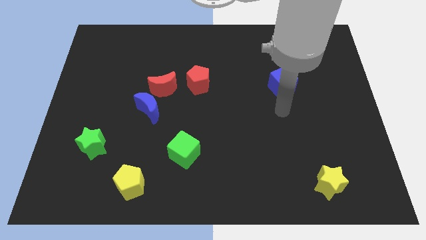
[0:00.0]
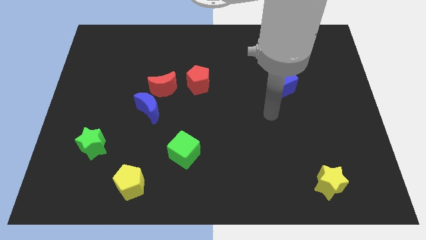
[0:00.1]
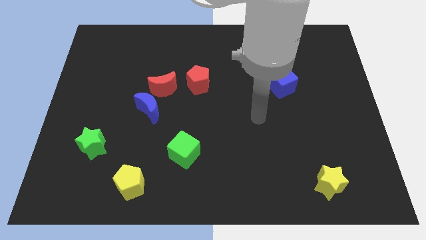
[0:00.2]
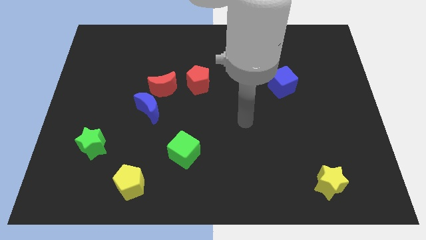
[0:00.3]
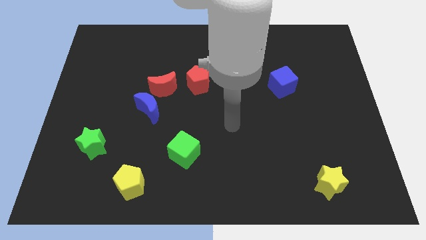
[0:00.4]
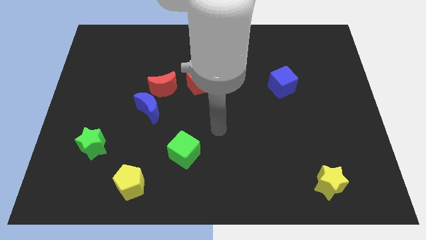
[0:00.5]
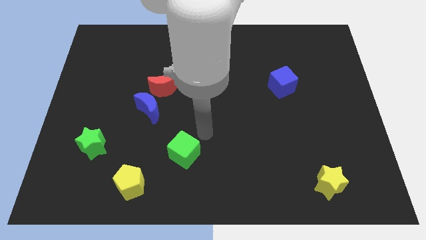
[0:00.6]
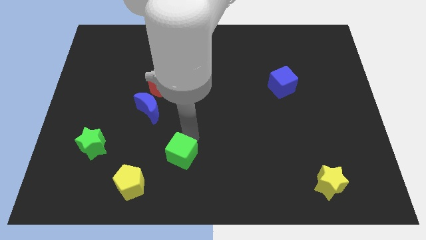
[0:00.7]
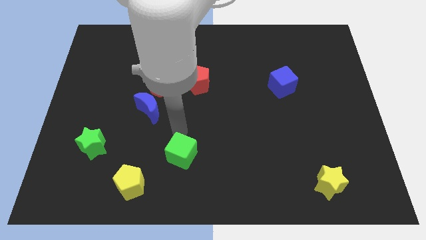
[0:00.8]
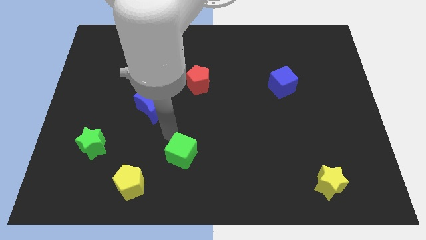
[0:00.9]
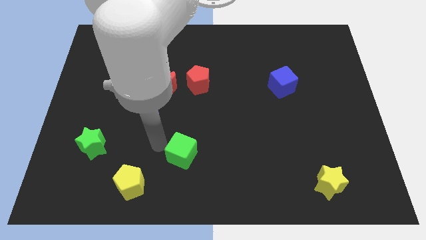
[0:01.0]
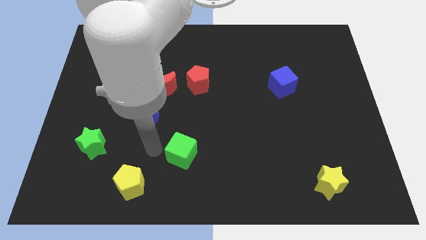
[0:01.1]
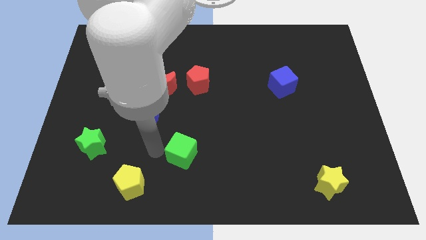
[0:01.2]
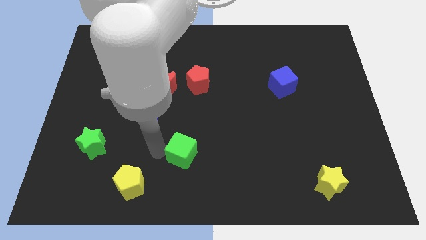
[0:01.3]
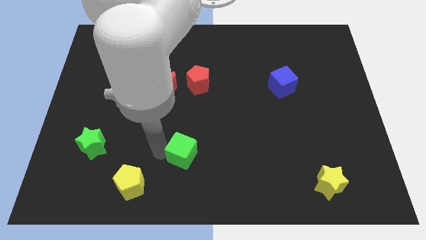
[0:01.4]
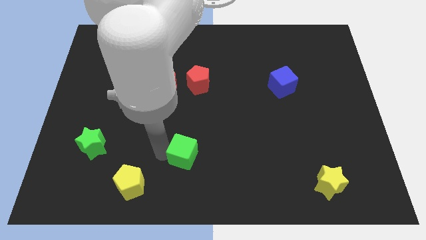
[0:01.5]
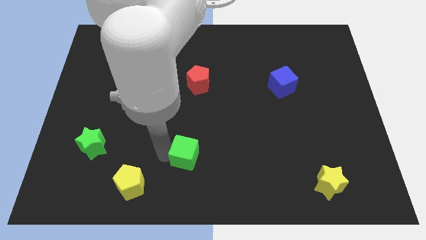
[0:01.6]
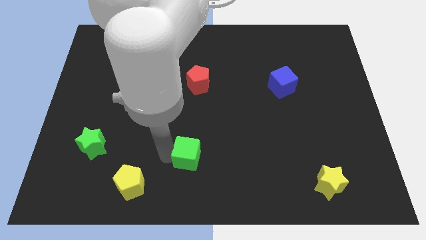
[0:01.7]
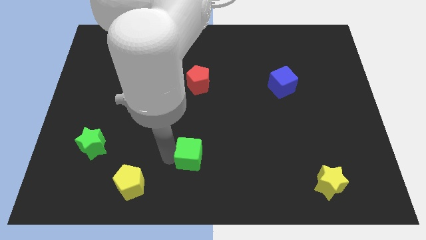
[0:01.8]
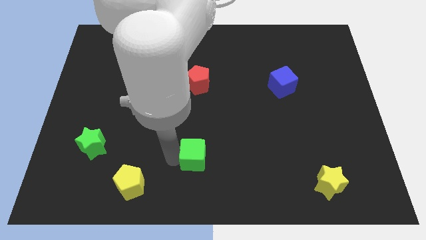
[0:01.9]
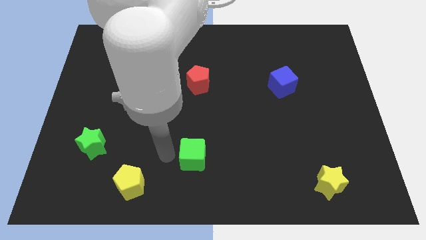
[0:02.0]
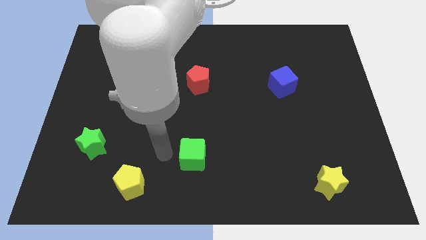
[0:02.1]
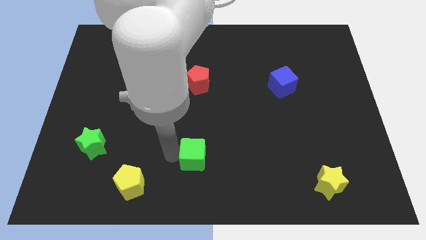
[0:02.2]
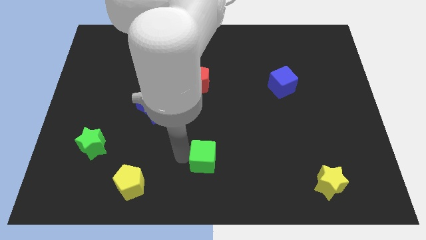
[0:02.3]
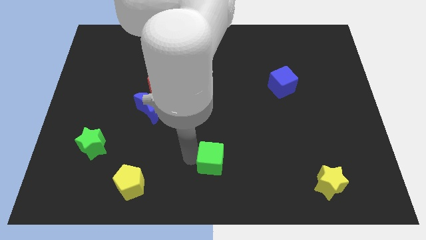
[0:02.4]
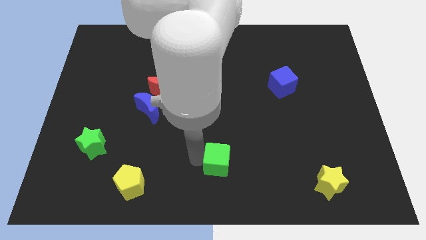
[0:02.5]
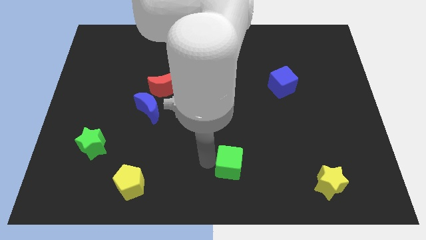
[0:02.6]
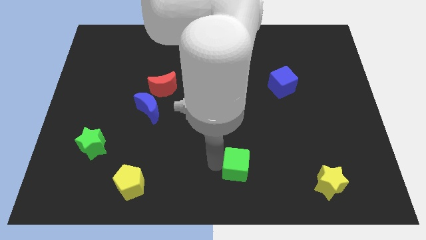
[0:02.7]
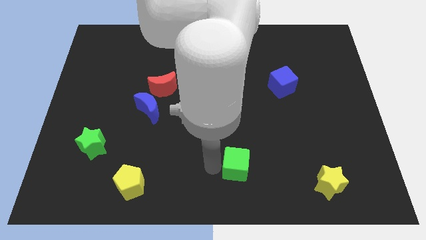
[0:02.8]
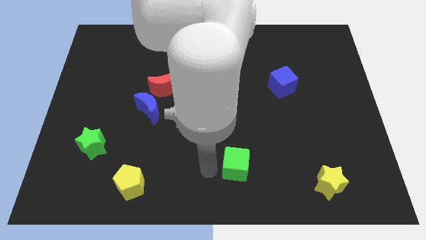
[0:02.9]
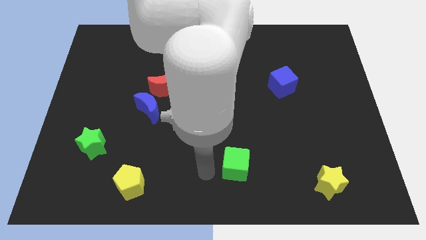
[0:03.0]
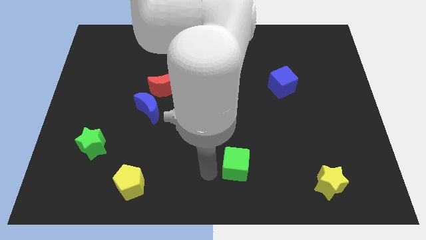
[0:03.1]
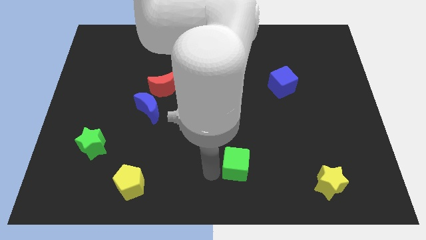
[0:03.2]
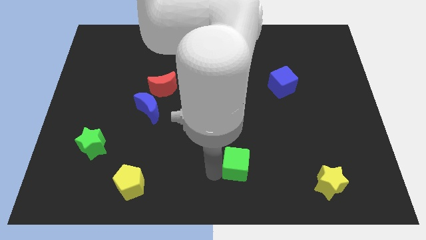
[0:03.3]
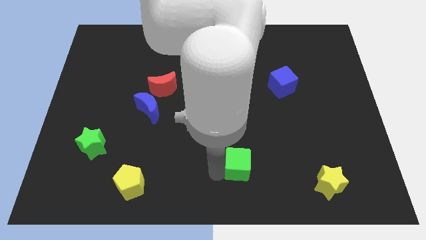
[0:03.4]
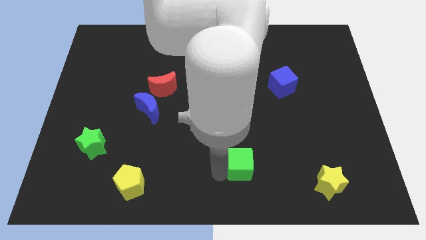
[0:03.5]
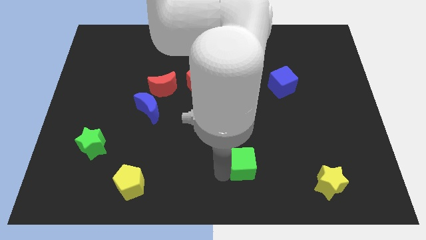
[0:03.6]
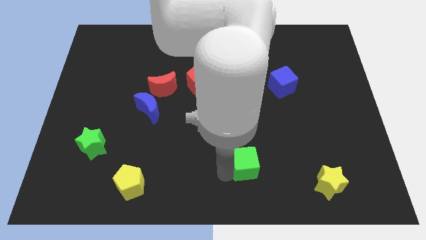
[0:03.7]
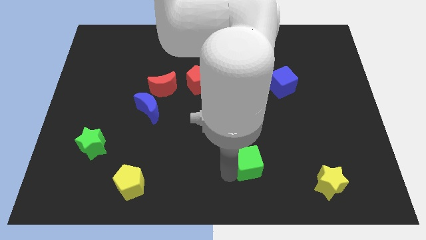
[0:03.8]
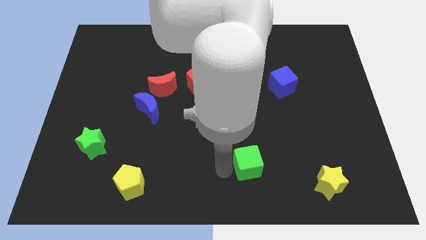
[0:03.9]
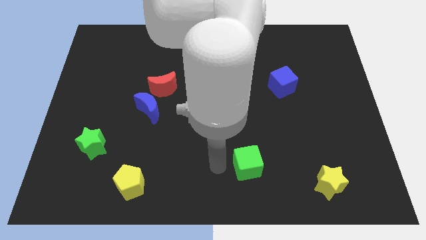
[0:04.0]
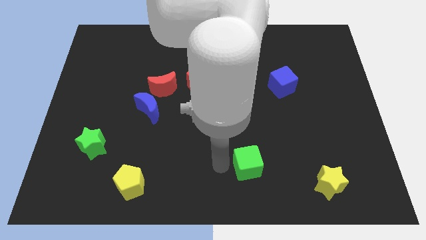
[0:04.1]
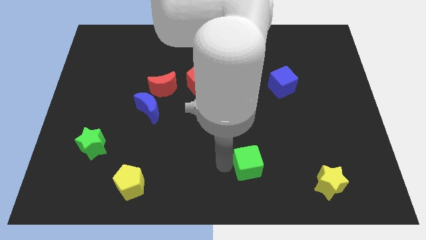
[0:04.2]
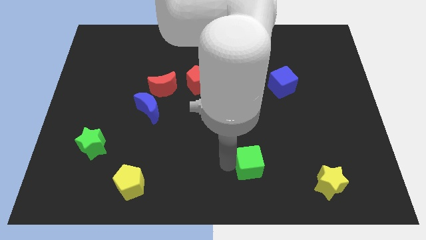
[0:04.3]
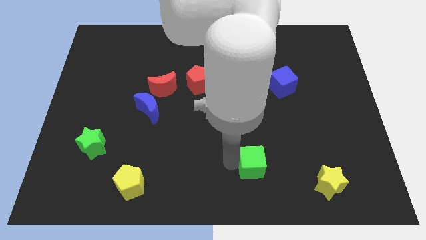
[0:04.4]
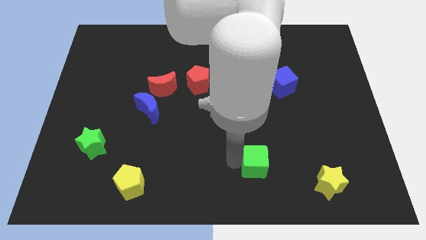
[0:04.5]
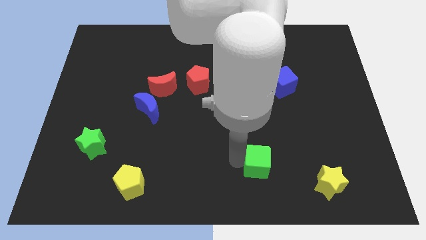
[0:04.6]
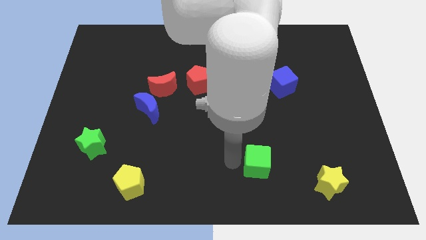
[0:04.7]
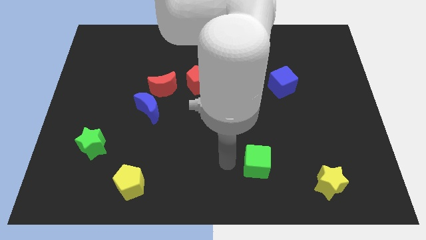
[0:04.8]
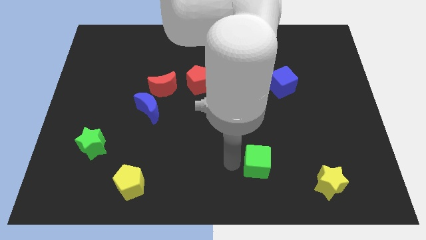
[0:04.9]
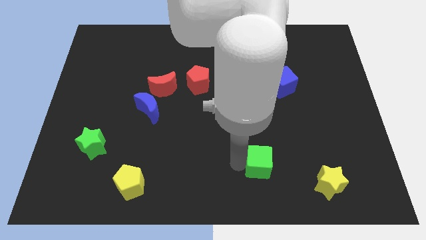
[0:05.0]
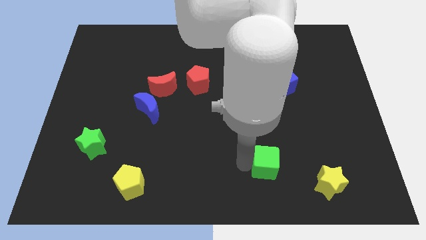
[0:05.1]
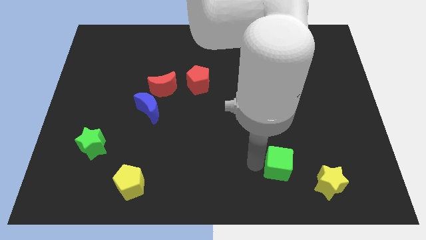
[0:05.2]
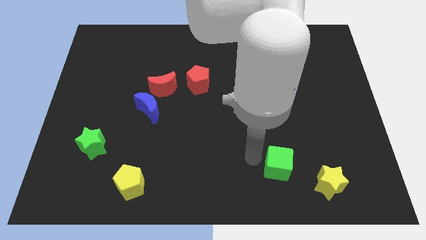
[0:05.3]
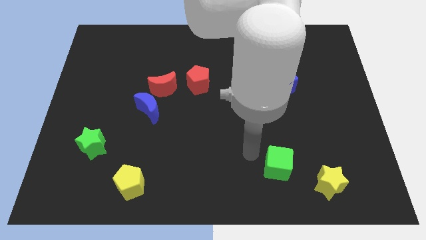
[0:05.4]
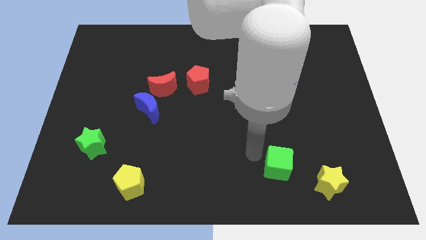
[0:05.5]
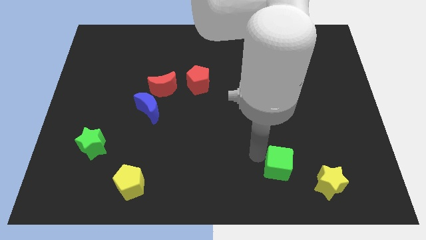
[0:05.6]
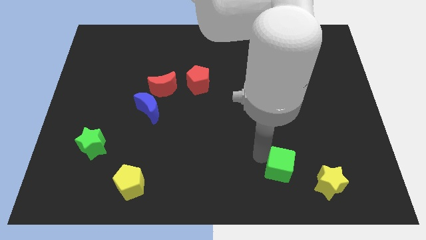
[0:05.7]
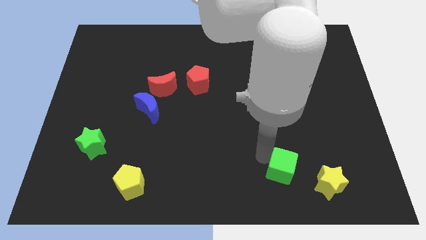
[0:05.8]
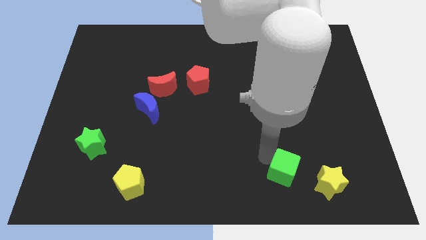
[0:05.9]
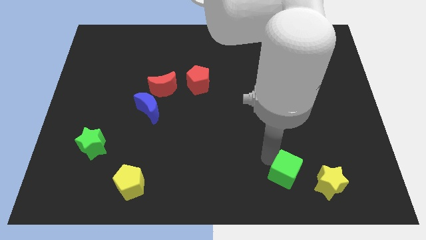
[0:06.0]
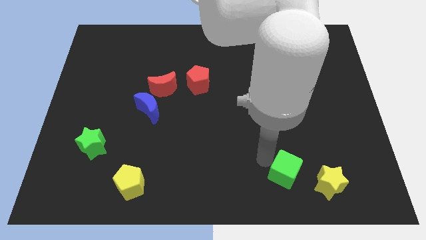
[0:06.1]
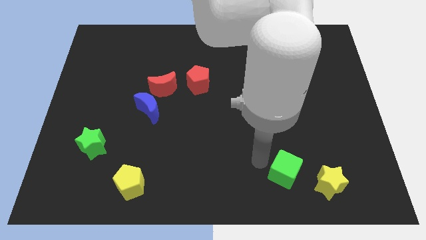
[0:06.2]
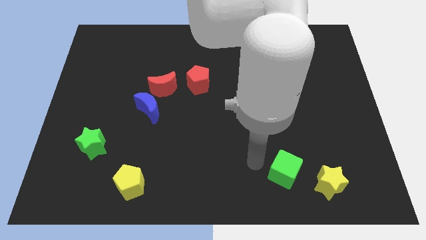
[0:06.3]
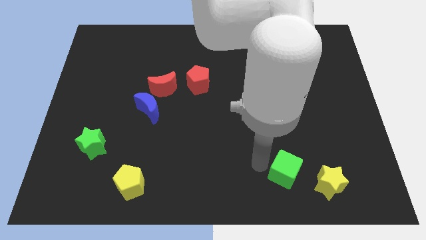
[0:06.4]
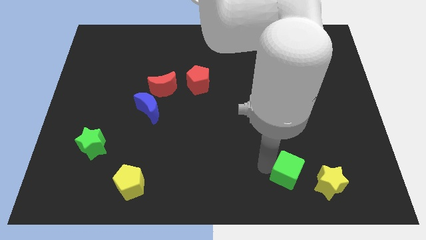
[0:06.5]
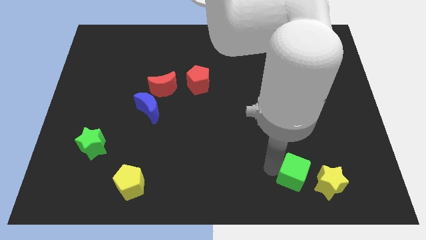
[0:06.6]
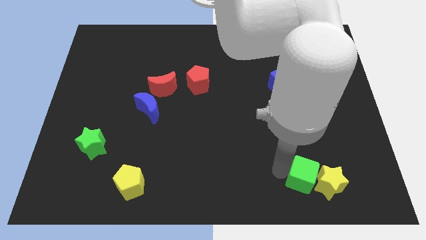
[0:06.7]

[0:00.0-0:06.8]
move the green cube towards the yellow star
